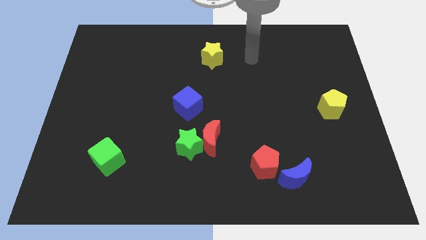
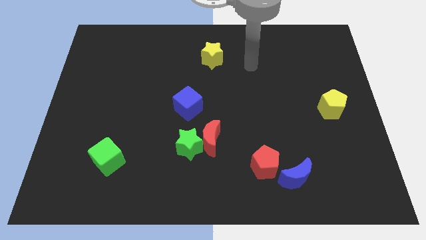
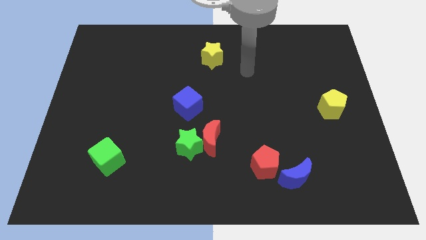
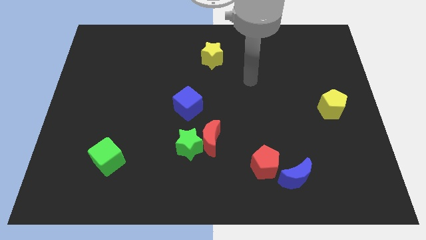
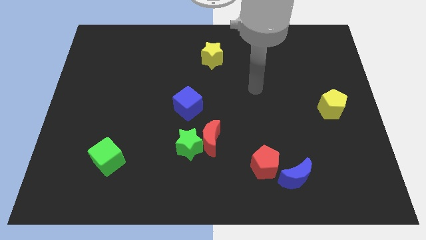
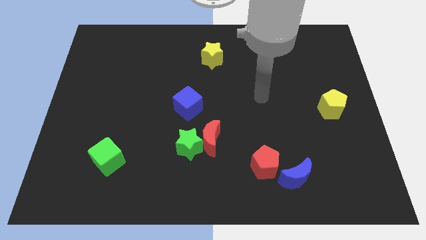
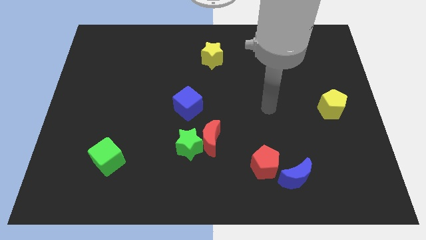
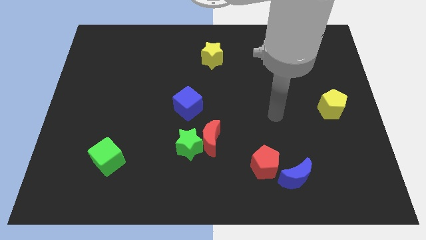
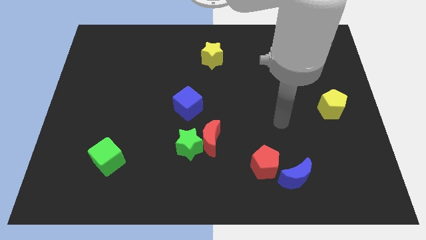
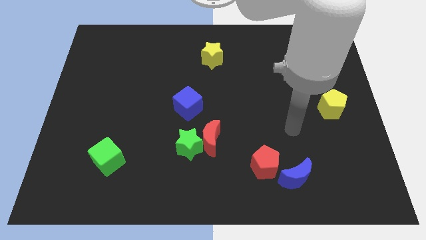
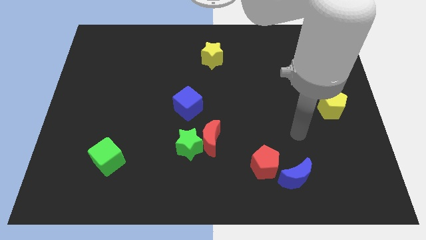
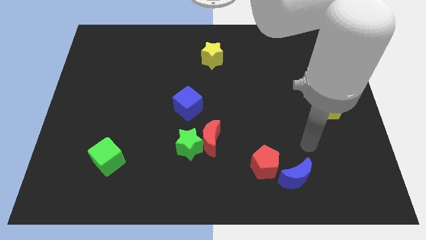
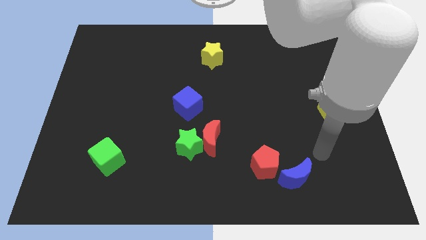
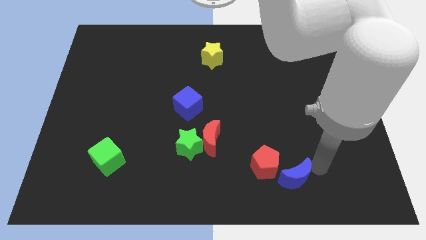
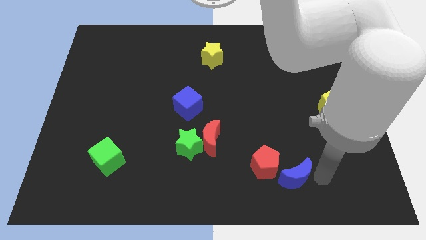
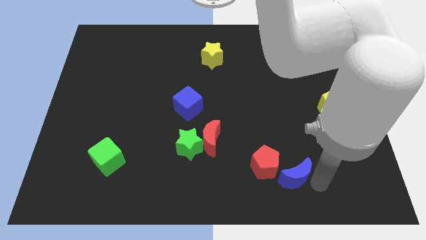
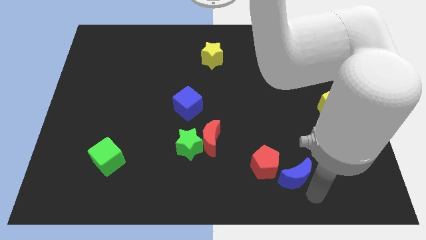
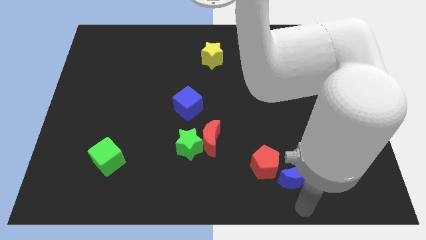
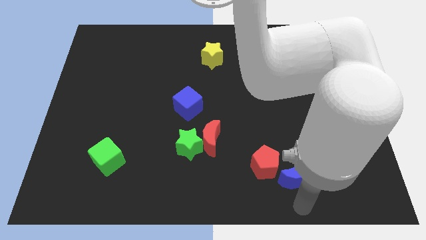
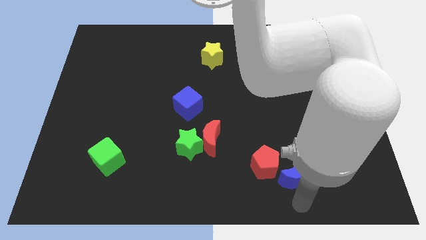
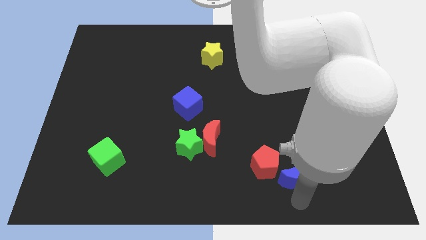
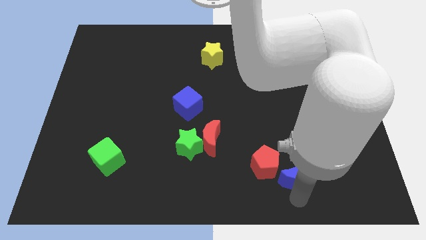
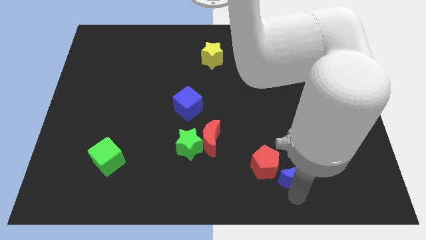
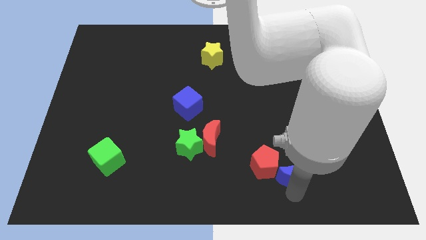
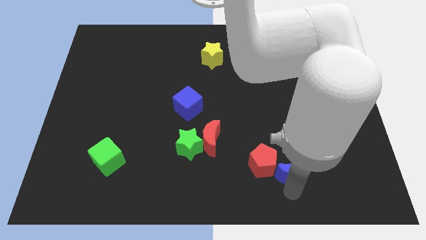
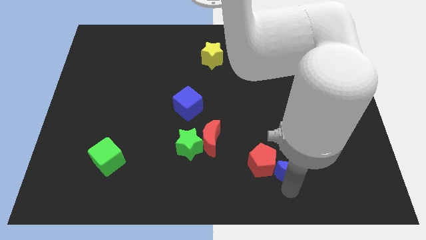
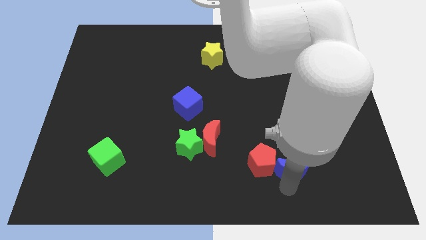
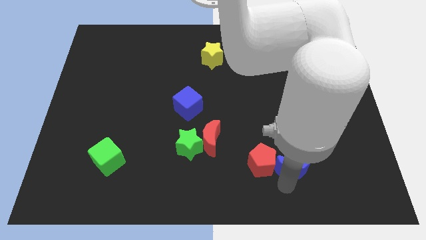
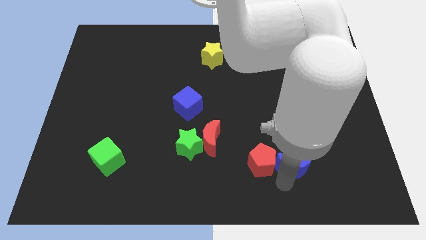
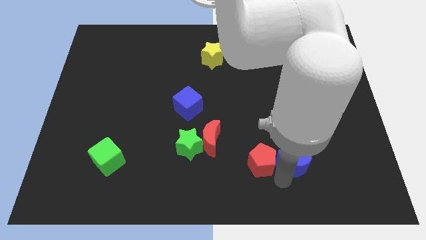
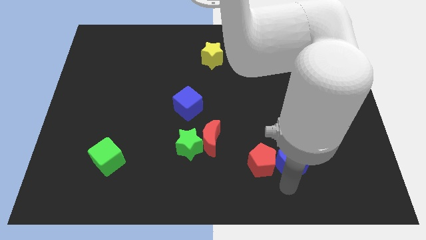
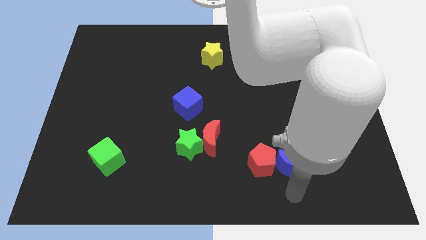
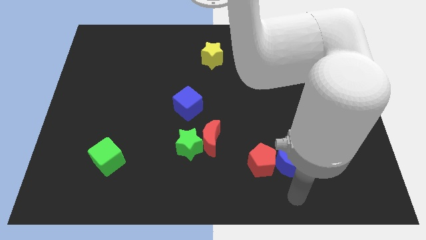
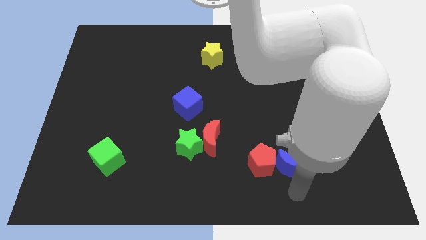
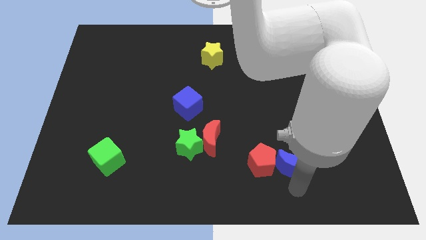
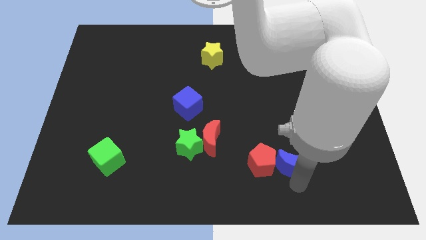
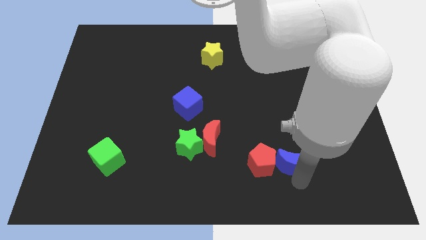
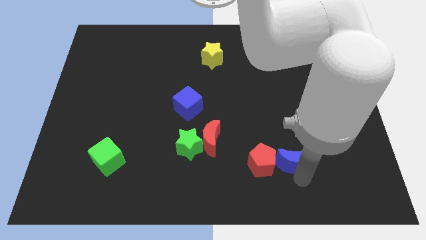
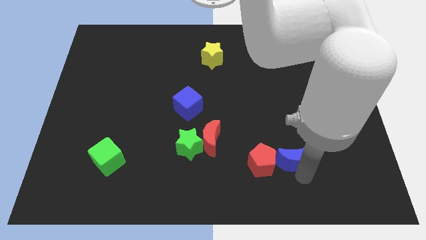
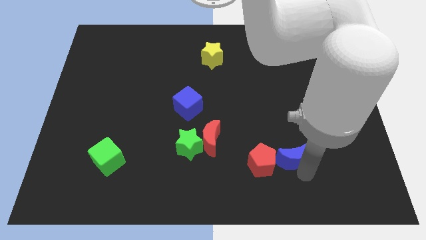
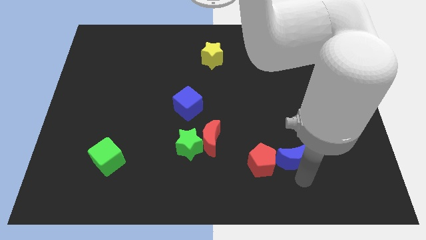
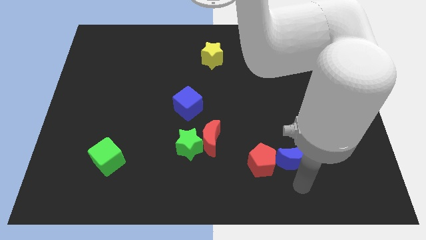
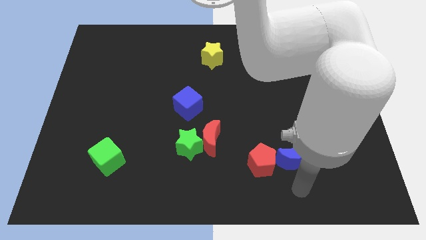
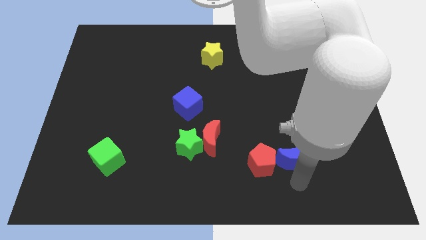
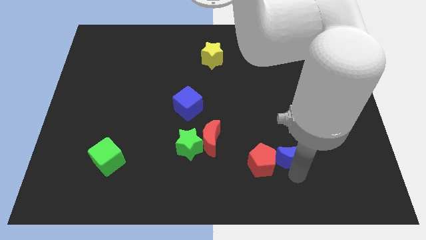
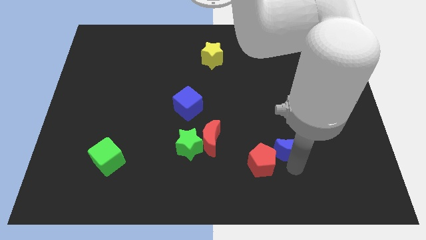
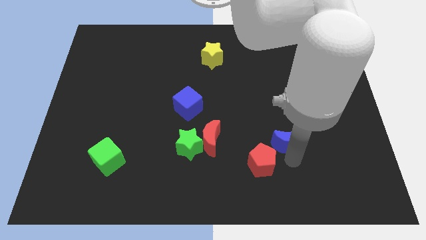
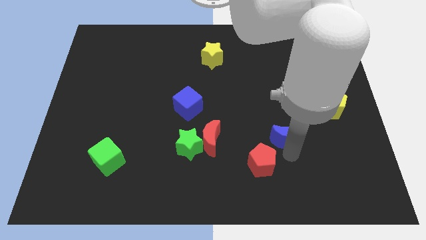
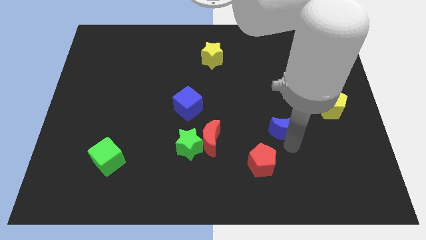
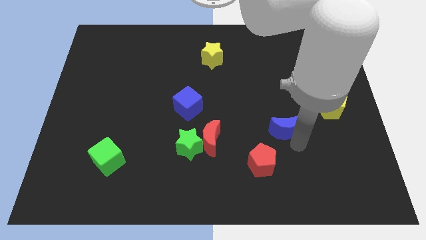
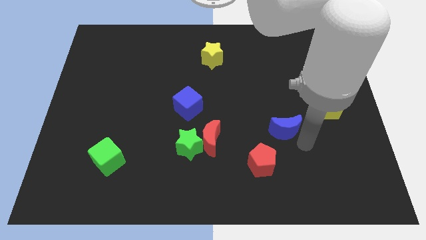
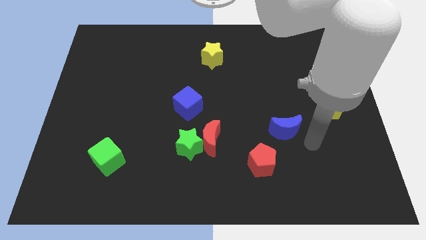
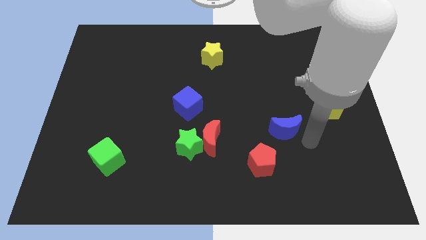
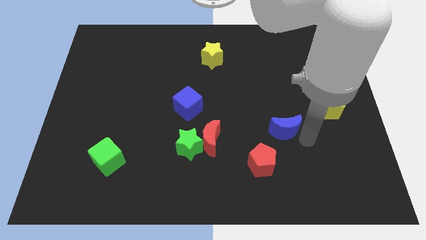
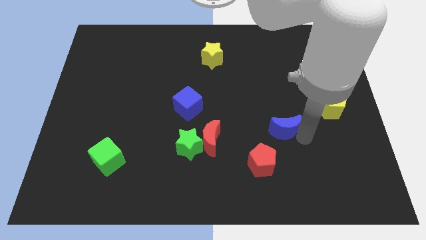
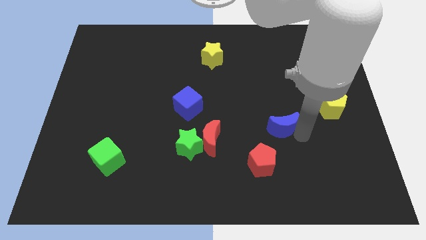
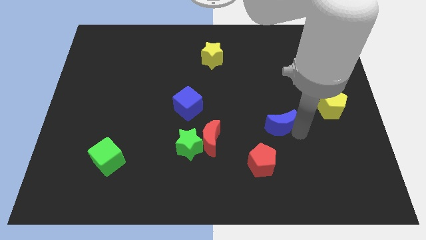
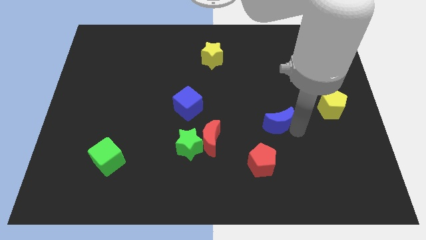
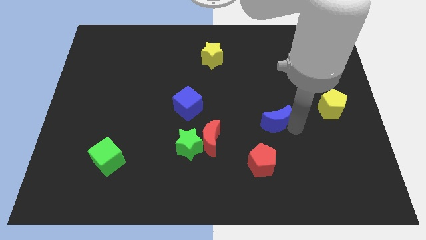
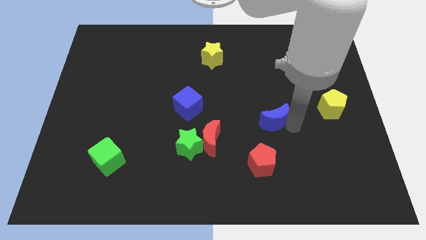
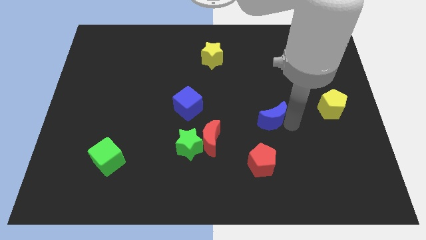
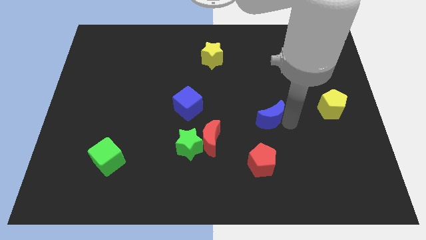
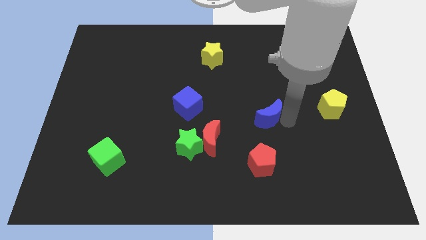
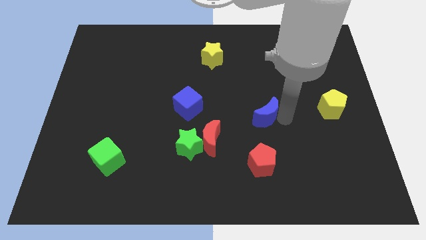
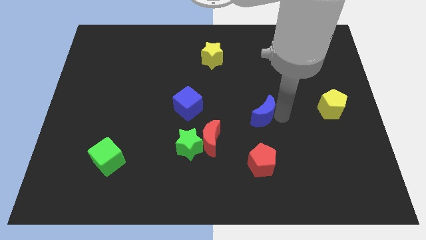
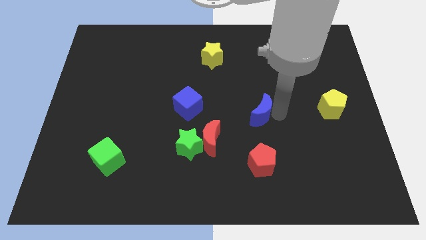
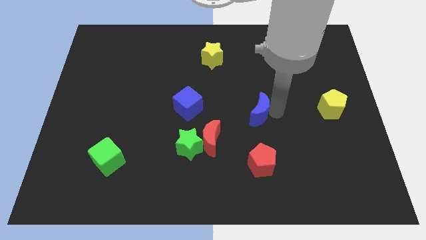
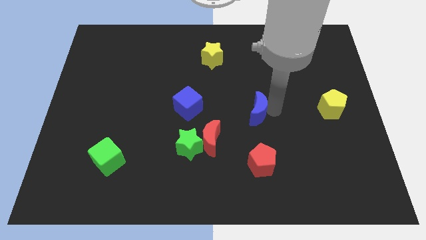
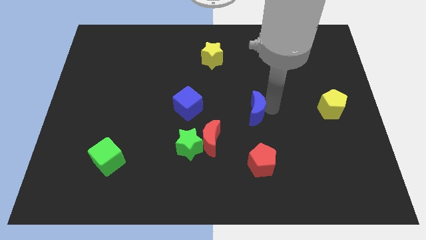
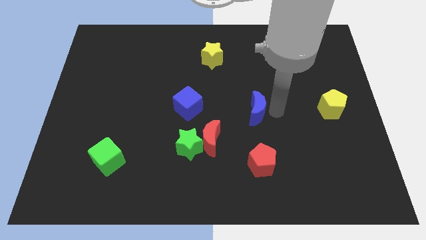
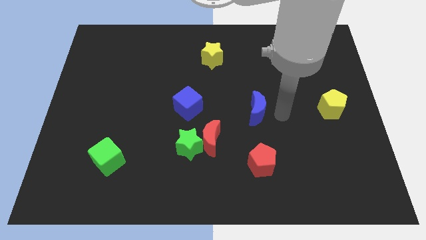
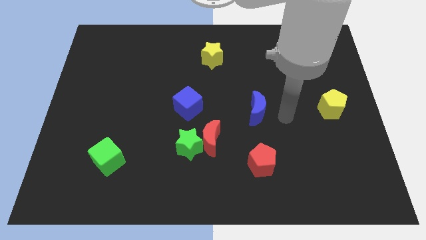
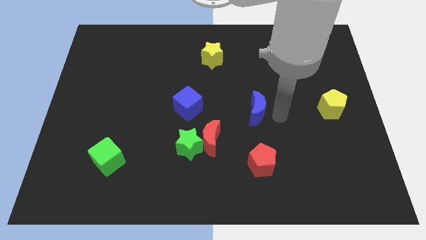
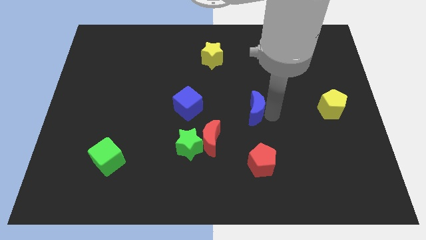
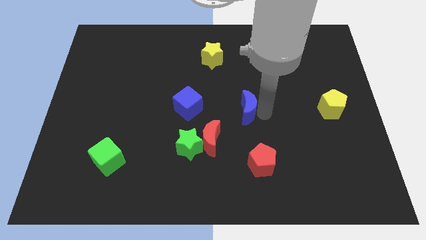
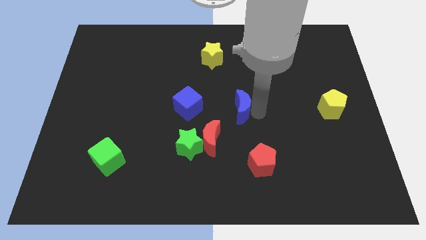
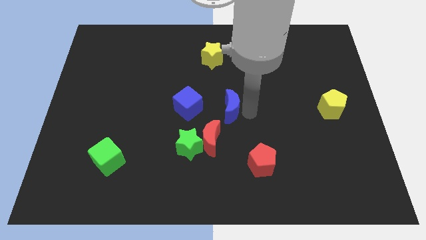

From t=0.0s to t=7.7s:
slide the blue moon up and to the left
